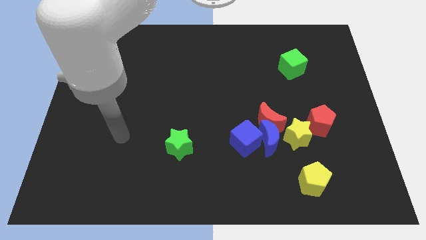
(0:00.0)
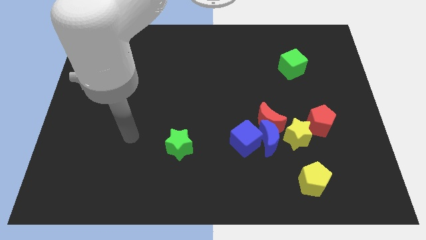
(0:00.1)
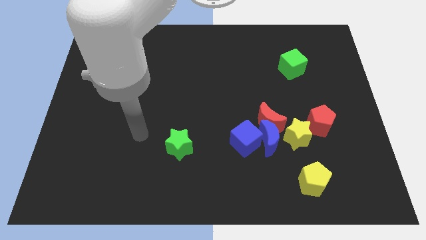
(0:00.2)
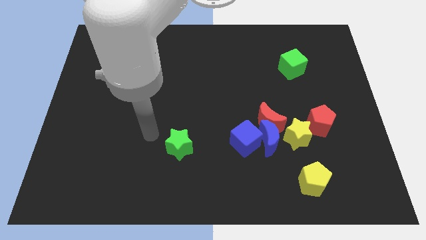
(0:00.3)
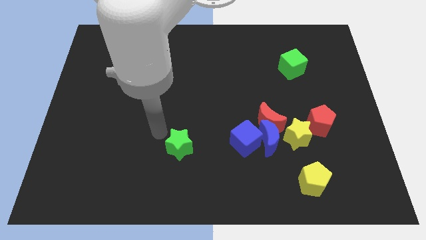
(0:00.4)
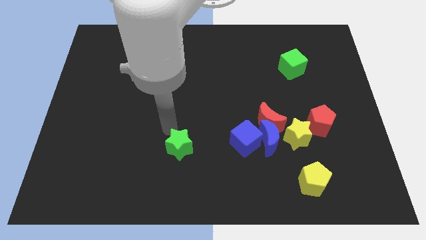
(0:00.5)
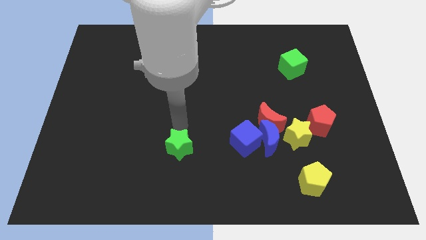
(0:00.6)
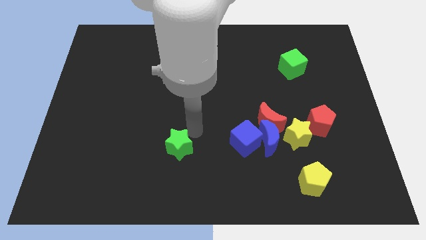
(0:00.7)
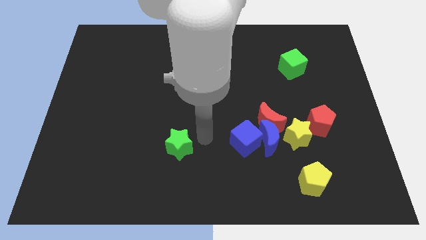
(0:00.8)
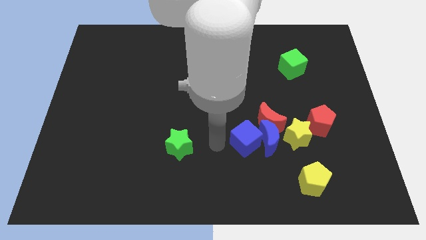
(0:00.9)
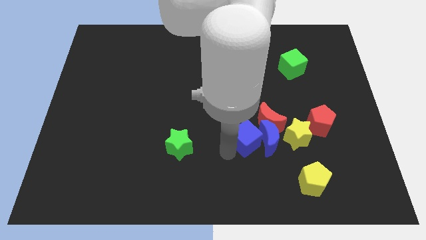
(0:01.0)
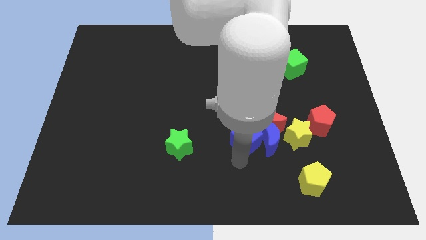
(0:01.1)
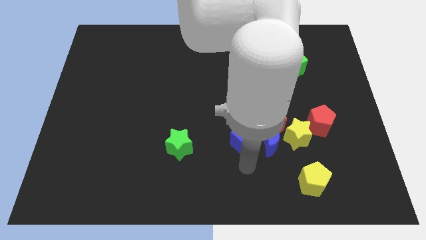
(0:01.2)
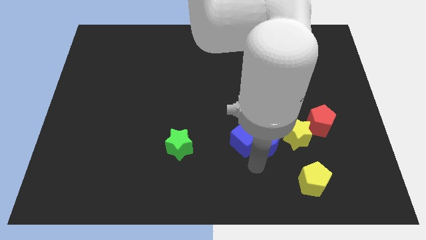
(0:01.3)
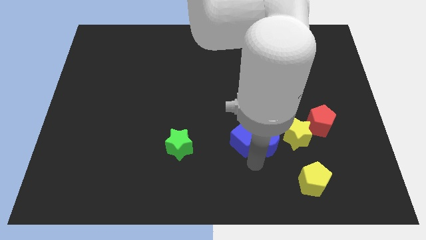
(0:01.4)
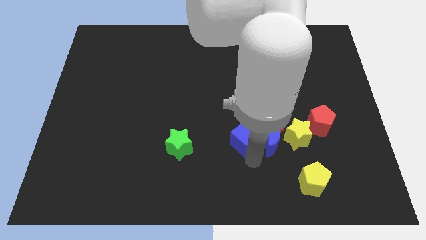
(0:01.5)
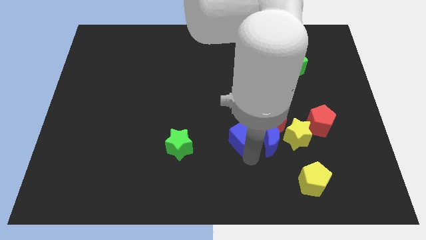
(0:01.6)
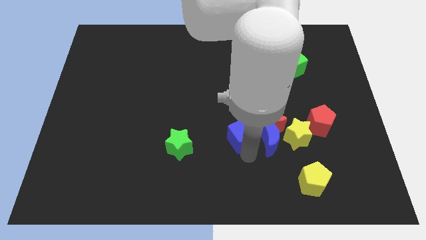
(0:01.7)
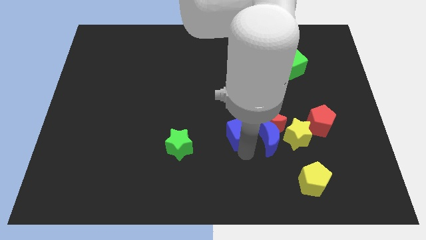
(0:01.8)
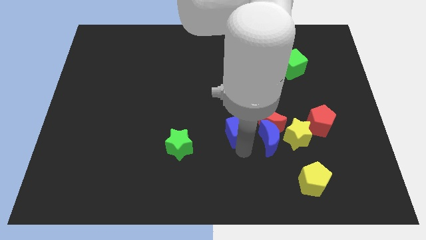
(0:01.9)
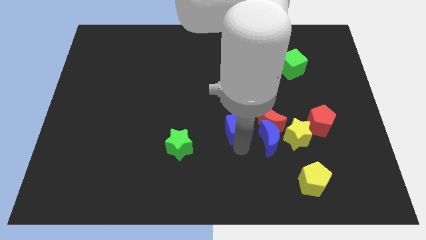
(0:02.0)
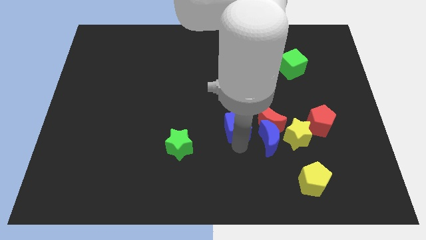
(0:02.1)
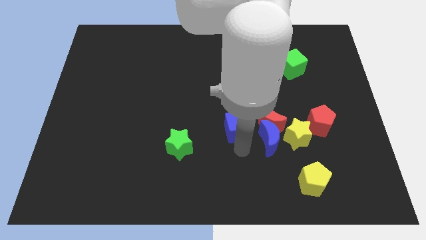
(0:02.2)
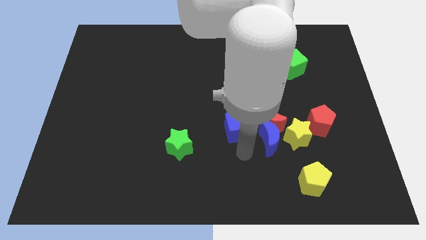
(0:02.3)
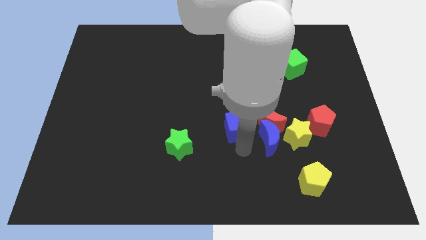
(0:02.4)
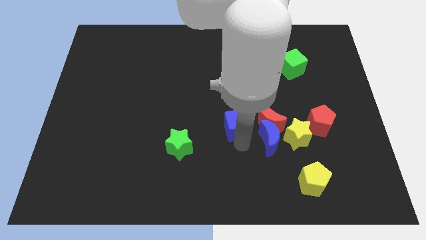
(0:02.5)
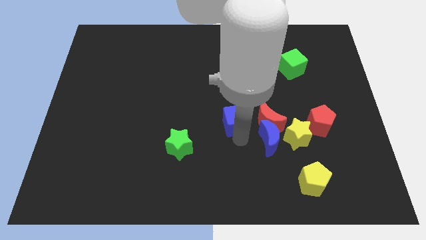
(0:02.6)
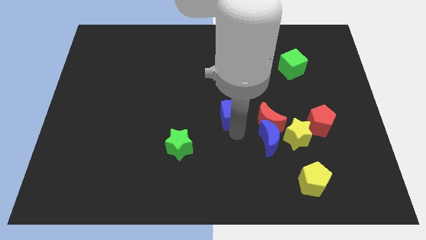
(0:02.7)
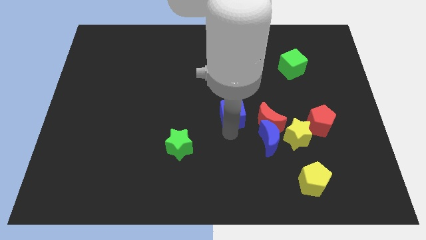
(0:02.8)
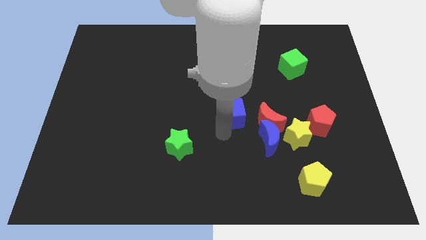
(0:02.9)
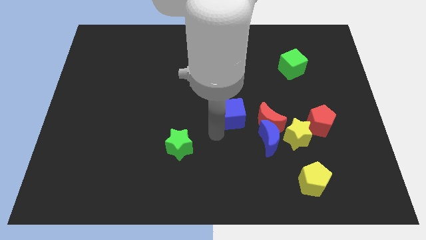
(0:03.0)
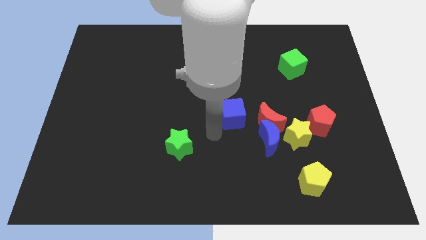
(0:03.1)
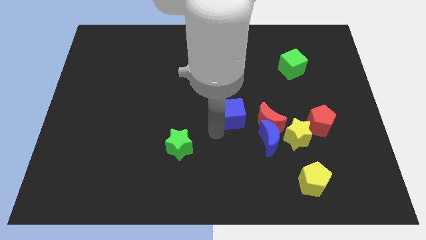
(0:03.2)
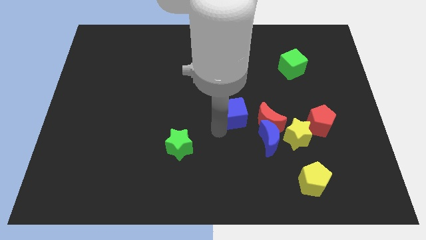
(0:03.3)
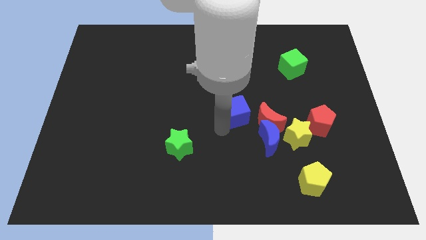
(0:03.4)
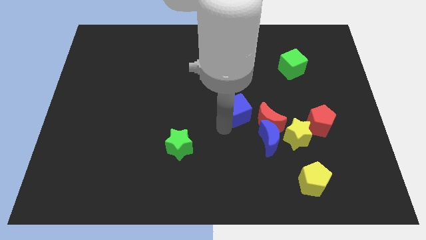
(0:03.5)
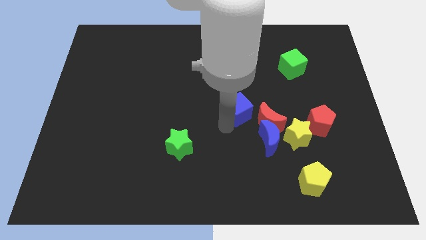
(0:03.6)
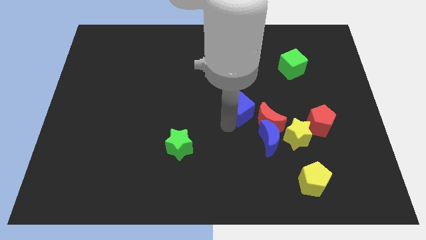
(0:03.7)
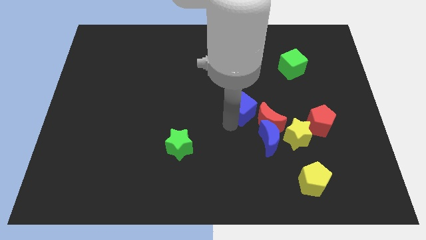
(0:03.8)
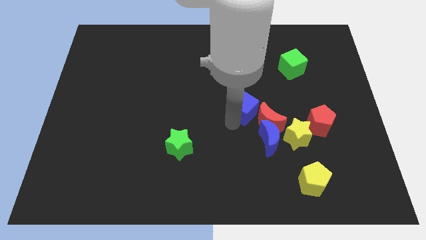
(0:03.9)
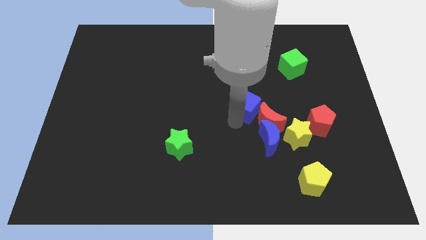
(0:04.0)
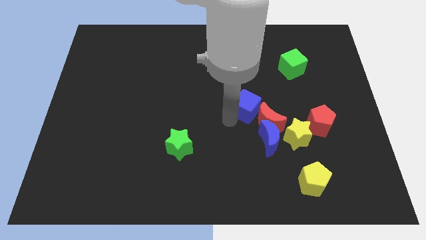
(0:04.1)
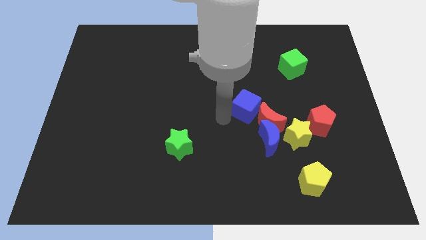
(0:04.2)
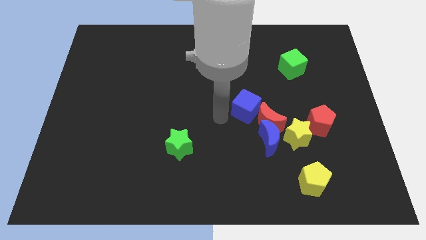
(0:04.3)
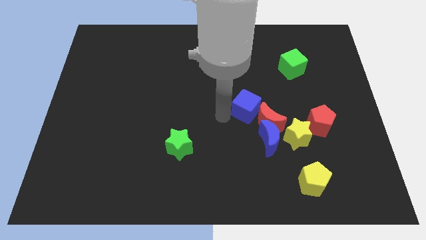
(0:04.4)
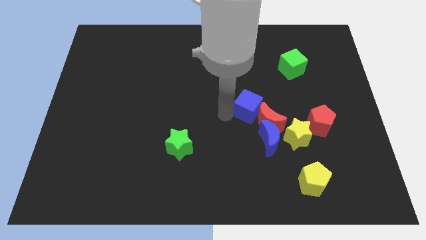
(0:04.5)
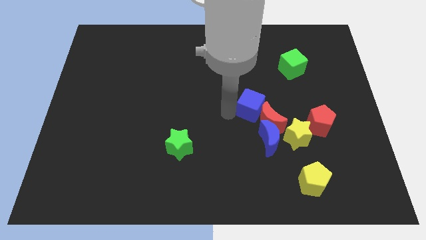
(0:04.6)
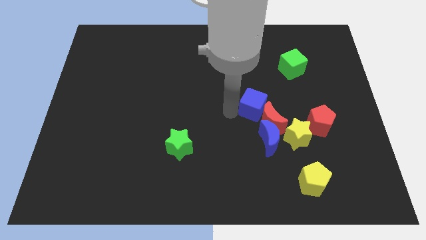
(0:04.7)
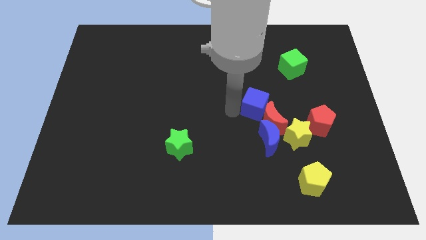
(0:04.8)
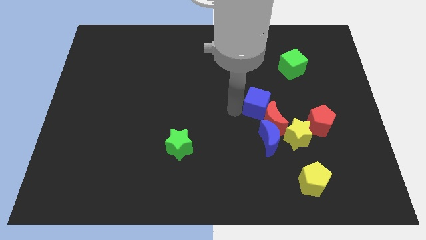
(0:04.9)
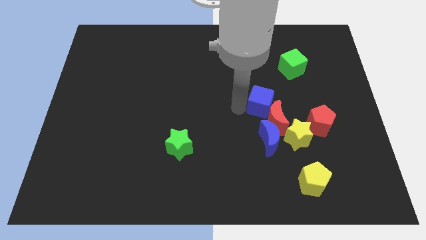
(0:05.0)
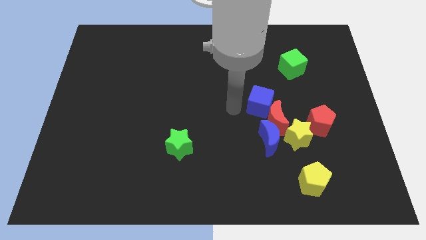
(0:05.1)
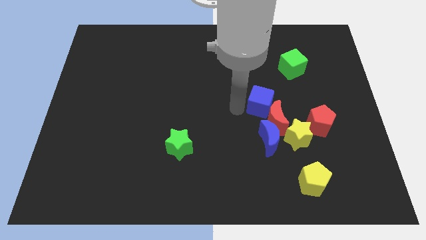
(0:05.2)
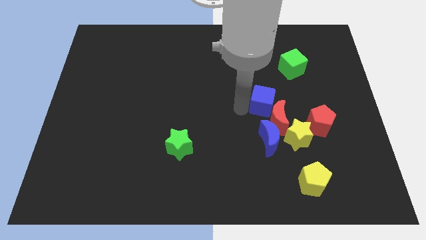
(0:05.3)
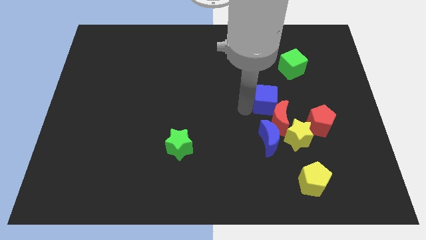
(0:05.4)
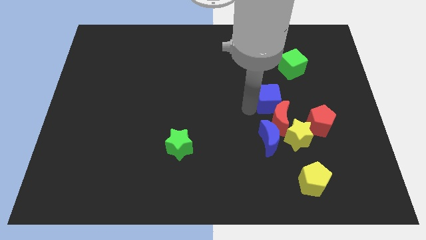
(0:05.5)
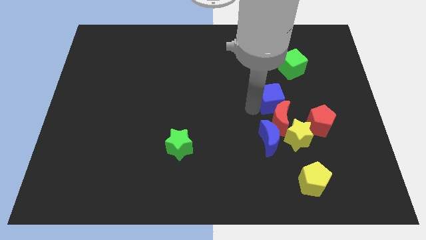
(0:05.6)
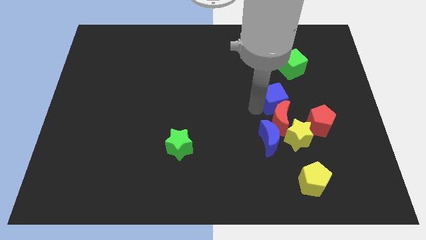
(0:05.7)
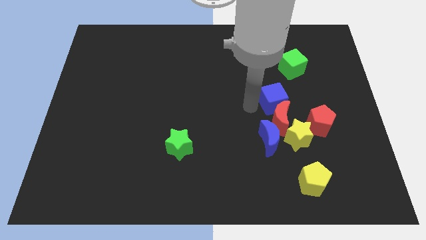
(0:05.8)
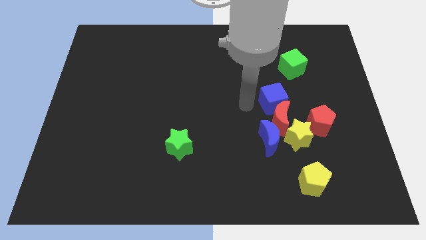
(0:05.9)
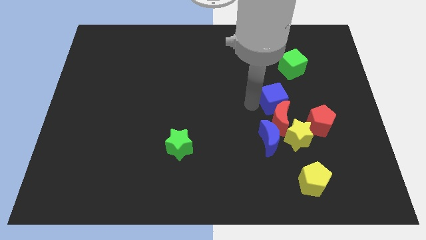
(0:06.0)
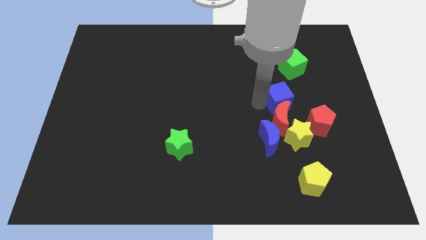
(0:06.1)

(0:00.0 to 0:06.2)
move the blue cube below the green cube

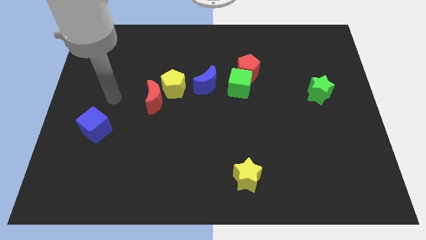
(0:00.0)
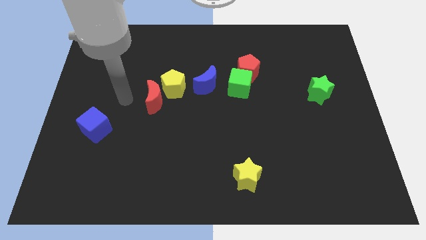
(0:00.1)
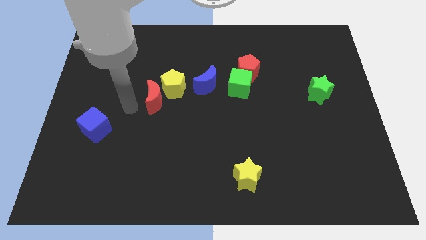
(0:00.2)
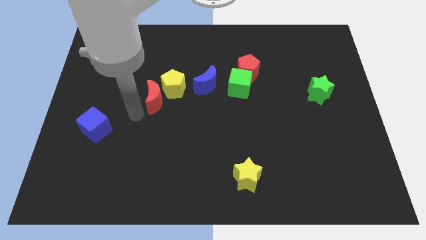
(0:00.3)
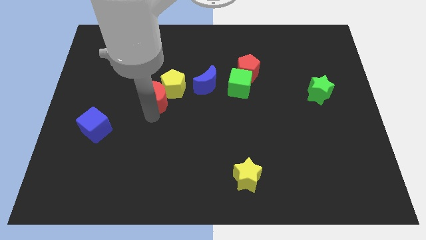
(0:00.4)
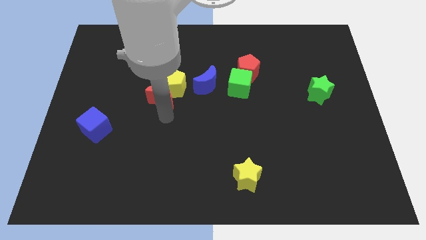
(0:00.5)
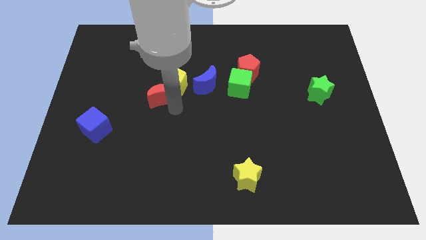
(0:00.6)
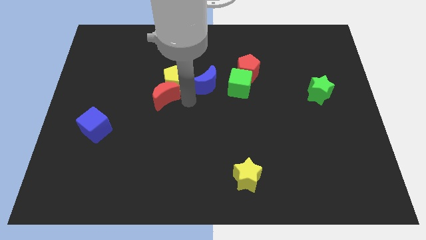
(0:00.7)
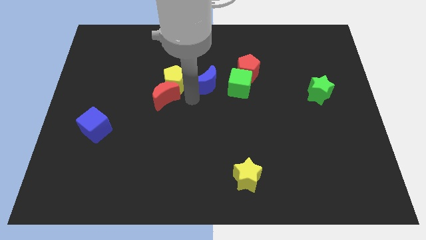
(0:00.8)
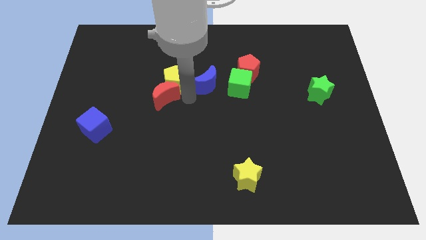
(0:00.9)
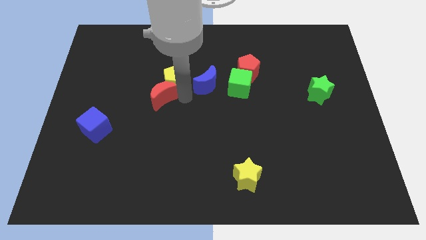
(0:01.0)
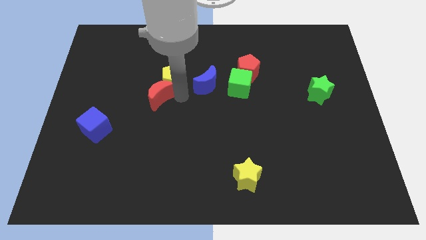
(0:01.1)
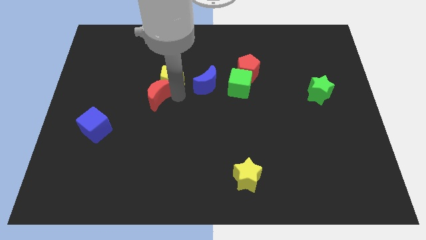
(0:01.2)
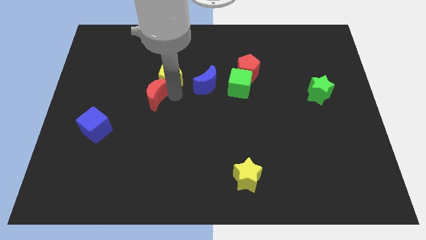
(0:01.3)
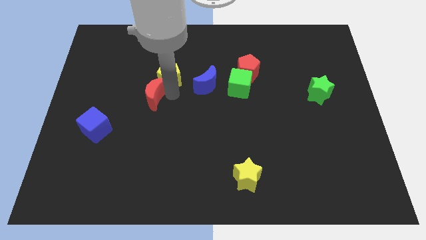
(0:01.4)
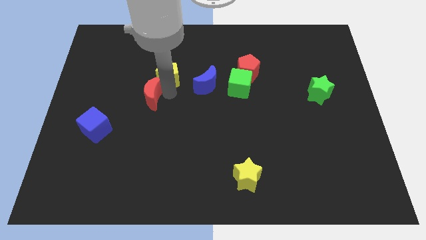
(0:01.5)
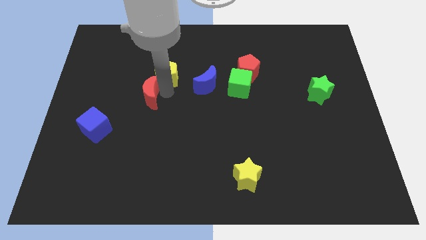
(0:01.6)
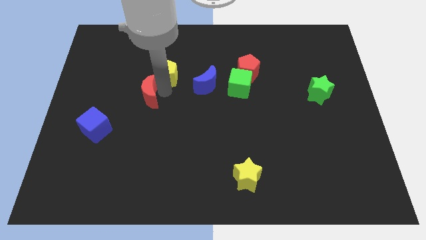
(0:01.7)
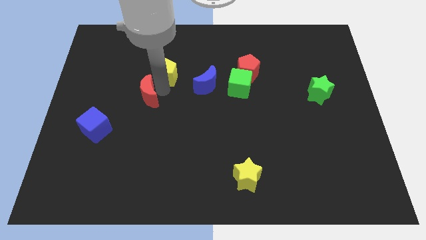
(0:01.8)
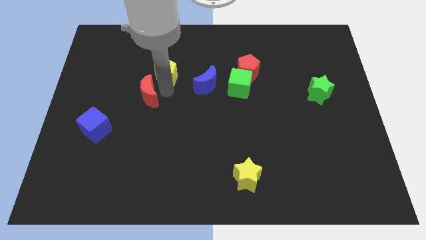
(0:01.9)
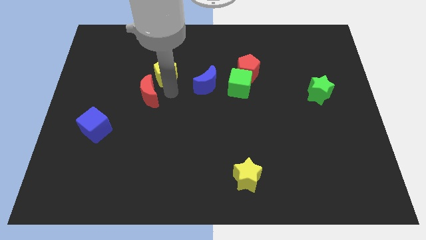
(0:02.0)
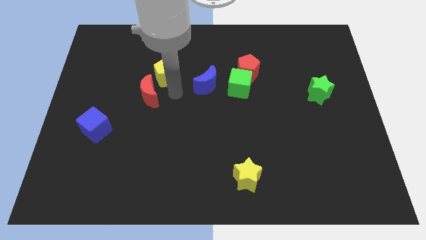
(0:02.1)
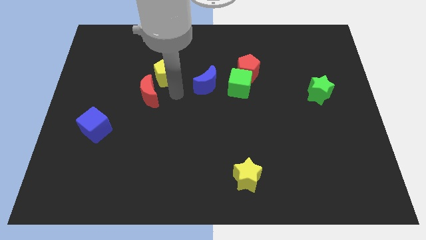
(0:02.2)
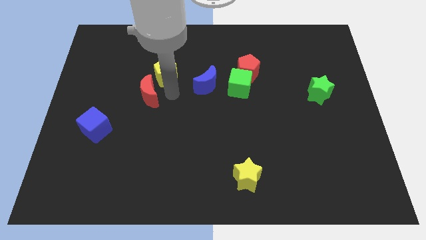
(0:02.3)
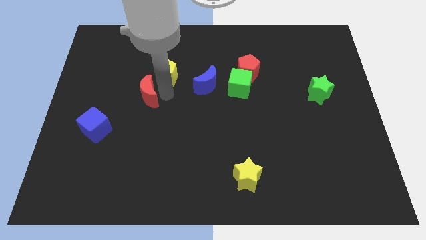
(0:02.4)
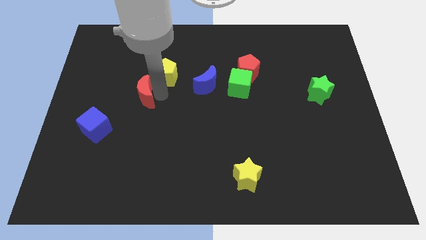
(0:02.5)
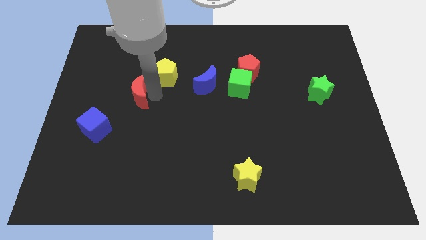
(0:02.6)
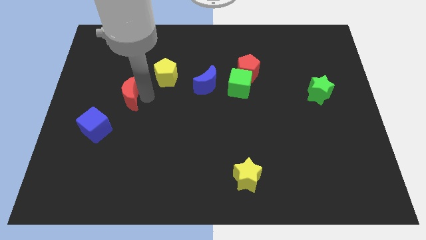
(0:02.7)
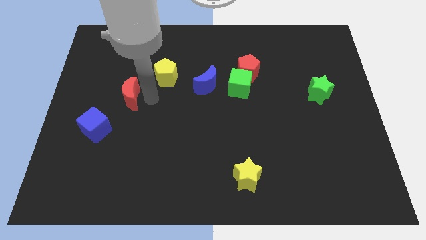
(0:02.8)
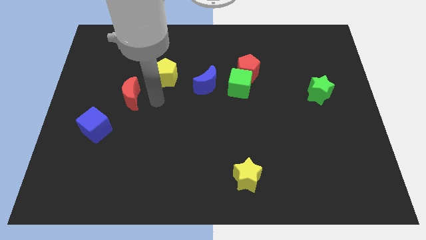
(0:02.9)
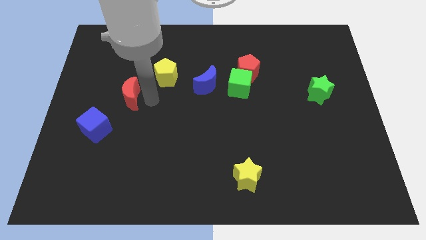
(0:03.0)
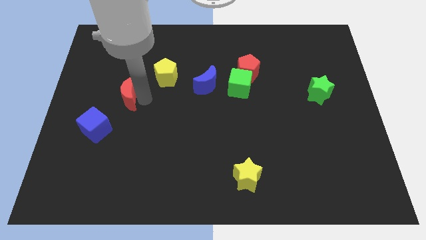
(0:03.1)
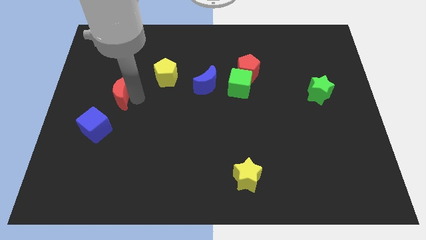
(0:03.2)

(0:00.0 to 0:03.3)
move the red moon above the blue cube
